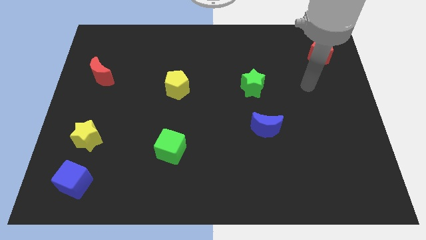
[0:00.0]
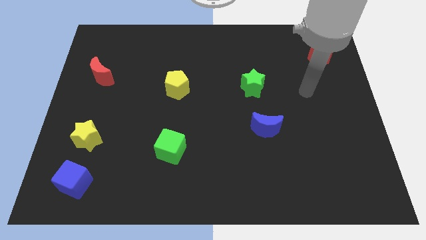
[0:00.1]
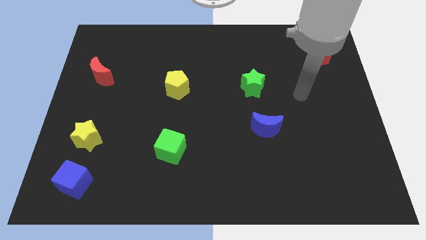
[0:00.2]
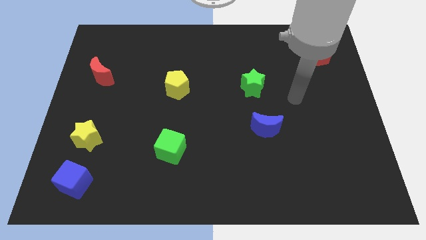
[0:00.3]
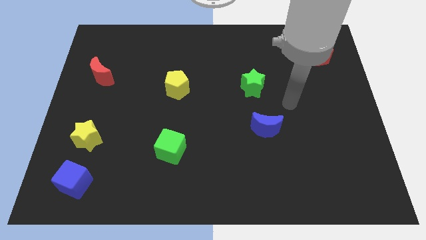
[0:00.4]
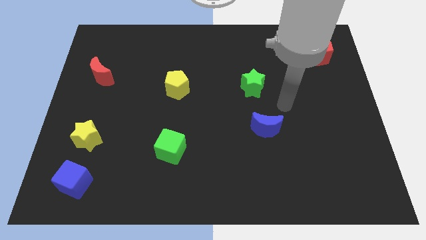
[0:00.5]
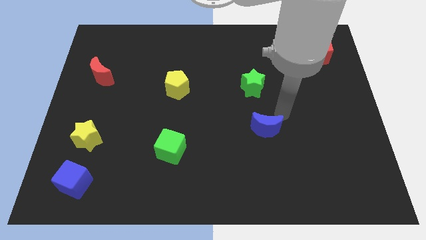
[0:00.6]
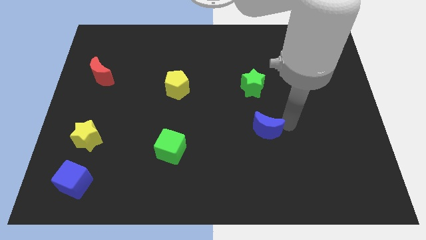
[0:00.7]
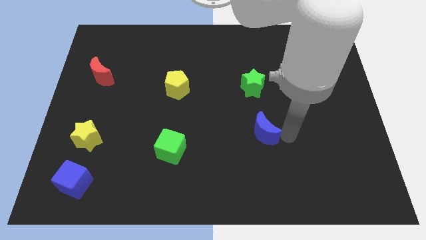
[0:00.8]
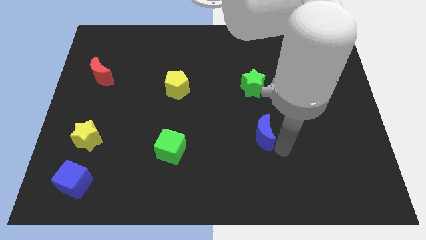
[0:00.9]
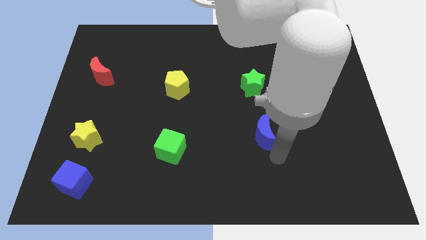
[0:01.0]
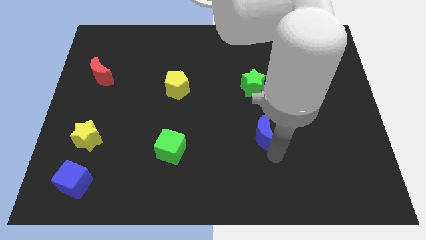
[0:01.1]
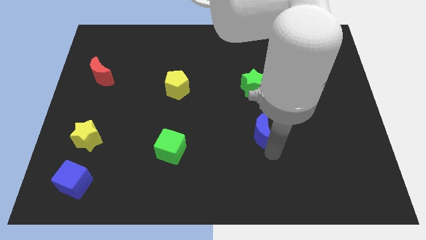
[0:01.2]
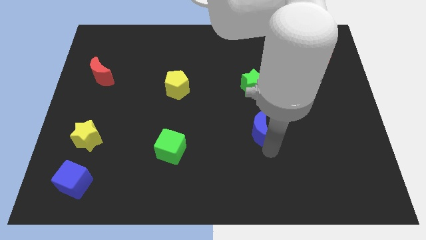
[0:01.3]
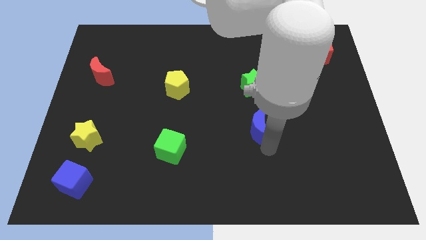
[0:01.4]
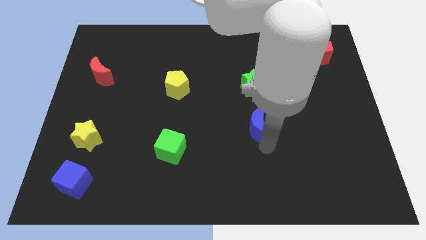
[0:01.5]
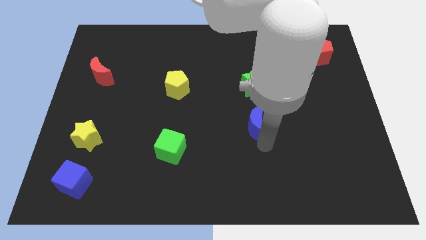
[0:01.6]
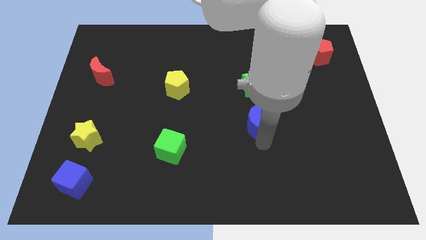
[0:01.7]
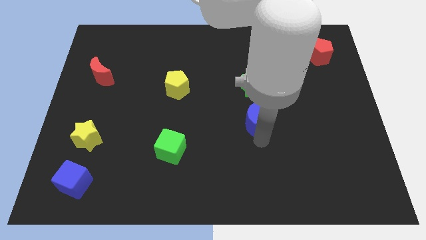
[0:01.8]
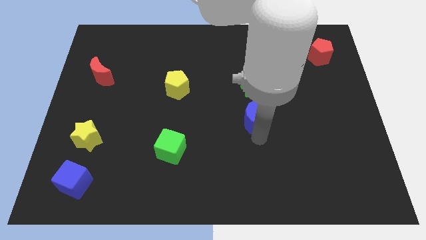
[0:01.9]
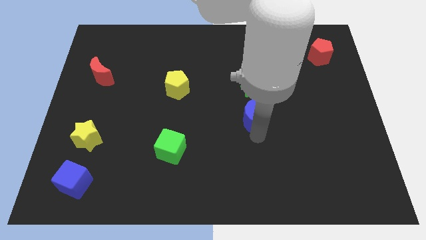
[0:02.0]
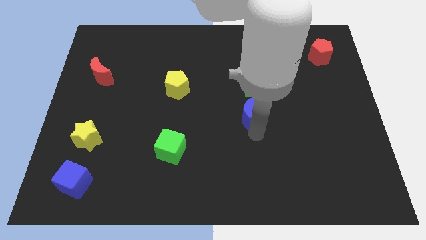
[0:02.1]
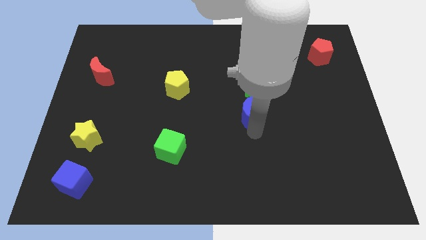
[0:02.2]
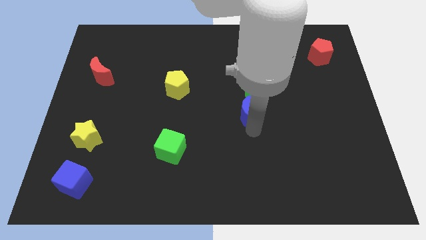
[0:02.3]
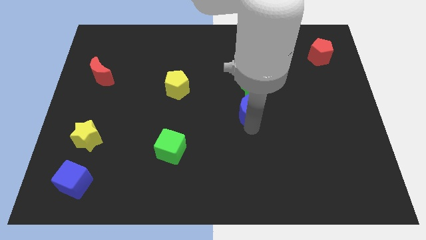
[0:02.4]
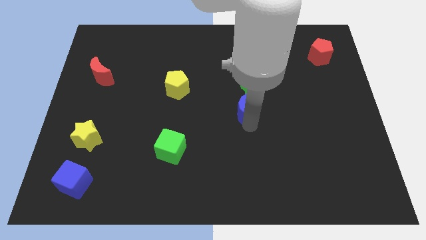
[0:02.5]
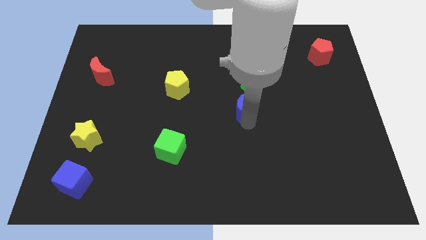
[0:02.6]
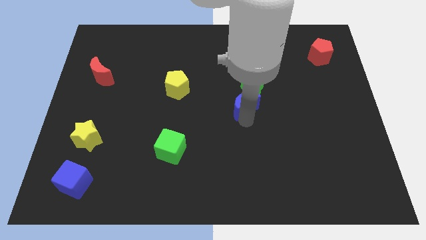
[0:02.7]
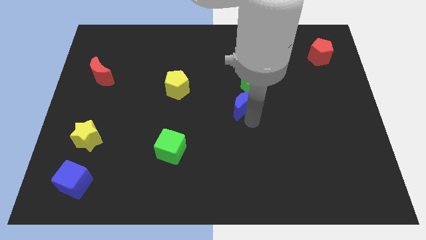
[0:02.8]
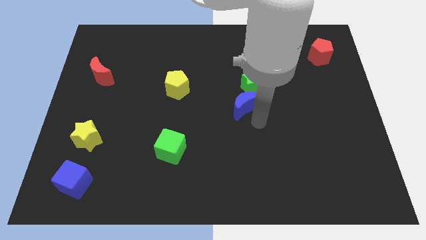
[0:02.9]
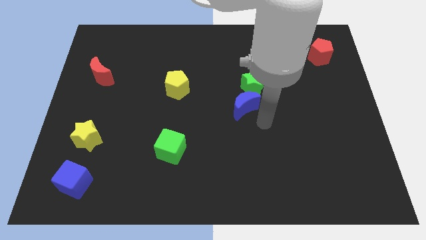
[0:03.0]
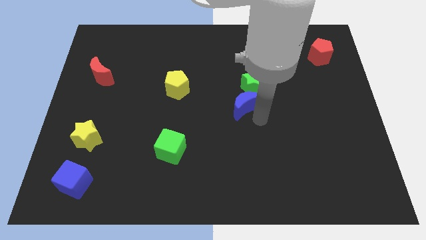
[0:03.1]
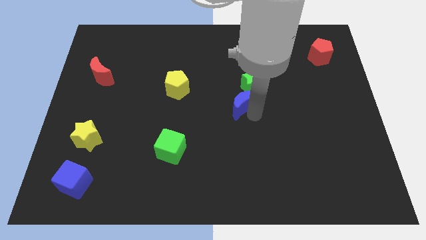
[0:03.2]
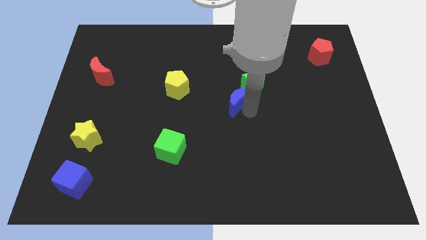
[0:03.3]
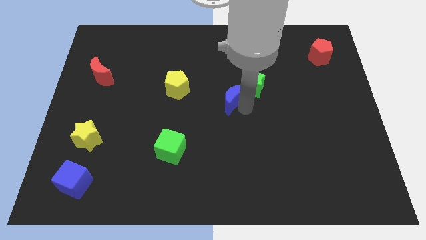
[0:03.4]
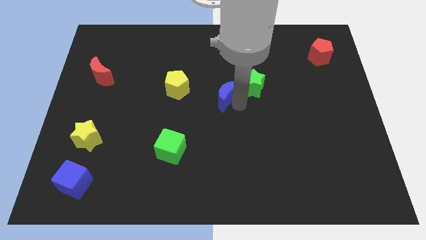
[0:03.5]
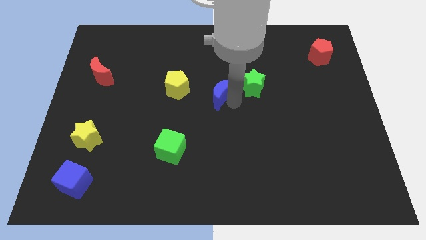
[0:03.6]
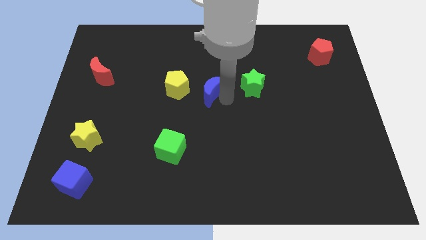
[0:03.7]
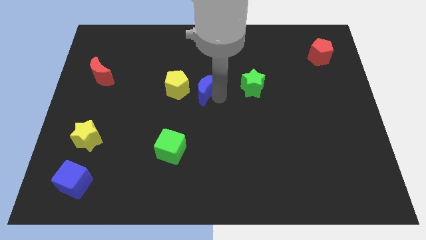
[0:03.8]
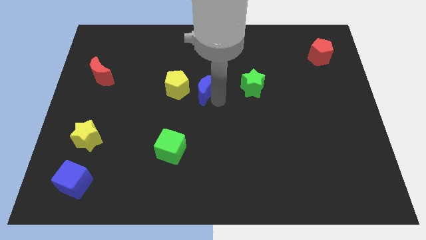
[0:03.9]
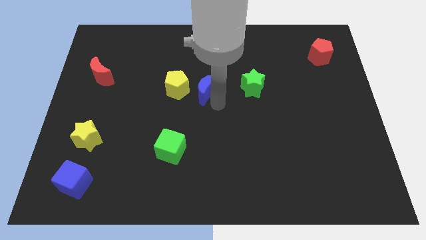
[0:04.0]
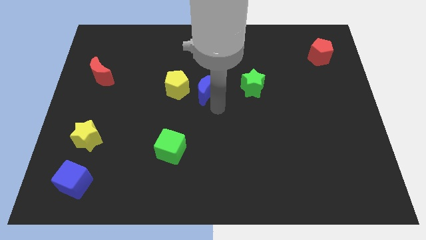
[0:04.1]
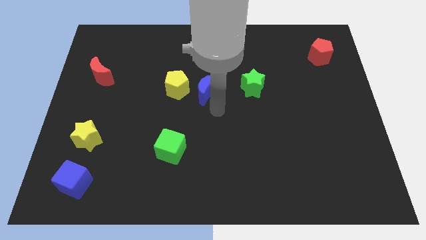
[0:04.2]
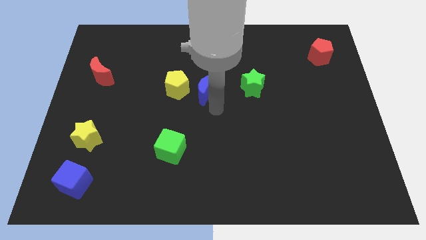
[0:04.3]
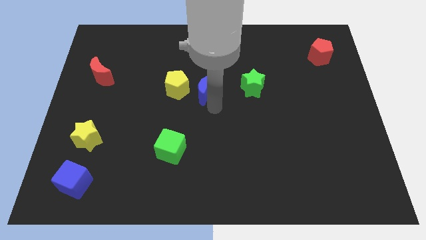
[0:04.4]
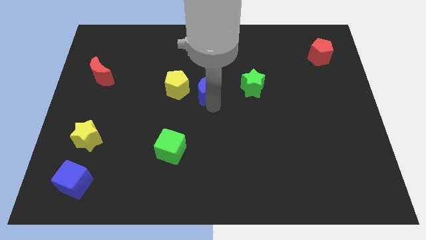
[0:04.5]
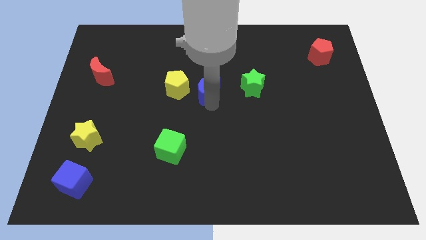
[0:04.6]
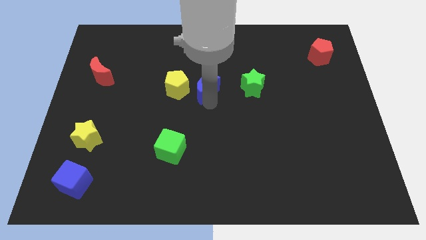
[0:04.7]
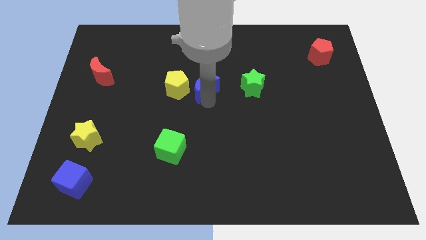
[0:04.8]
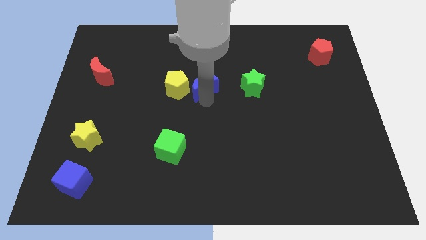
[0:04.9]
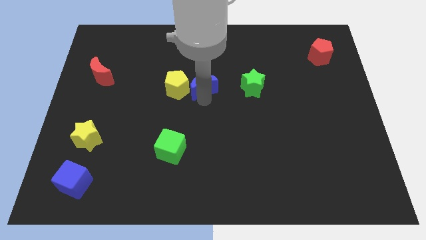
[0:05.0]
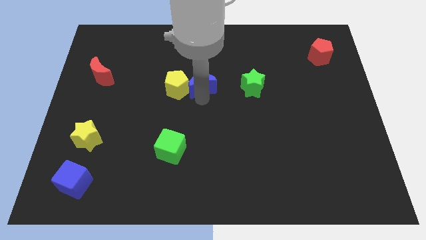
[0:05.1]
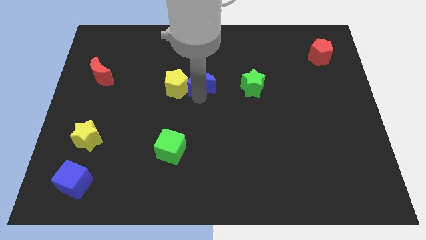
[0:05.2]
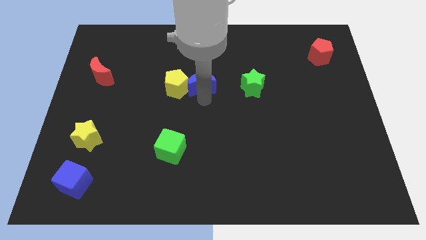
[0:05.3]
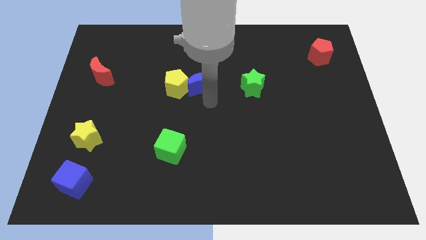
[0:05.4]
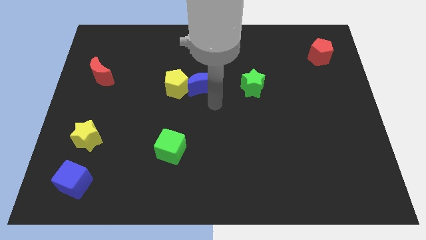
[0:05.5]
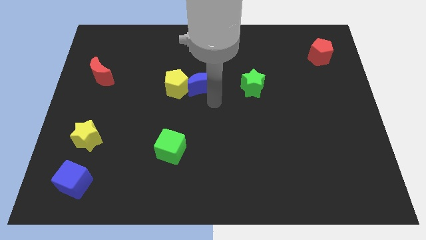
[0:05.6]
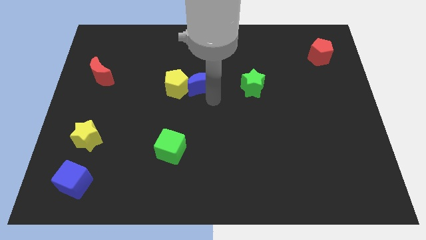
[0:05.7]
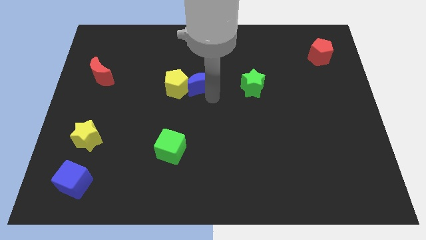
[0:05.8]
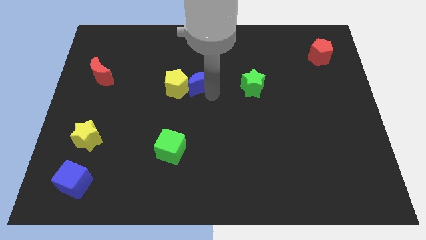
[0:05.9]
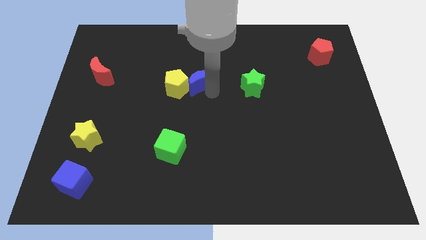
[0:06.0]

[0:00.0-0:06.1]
move the blue moon up and to the left

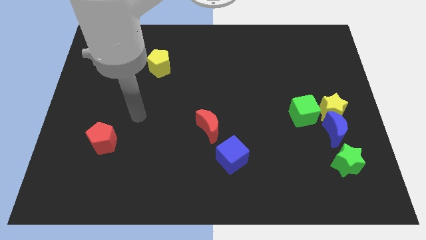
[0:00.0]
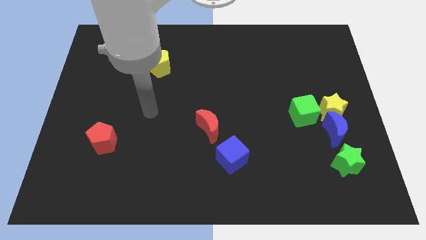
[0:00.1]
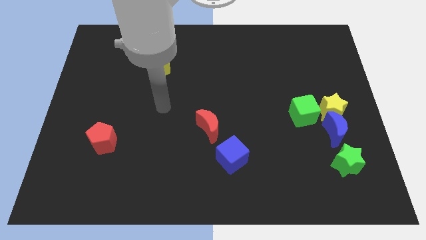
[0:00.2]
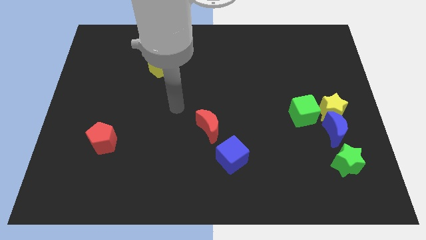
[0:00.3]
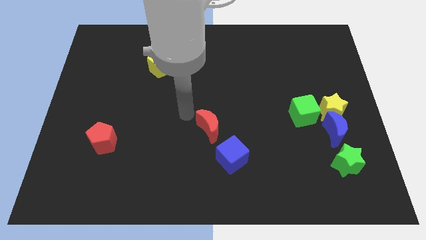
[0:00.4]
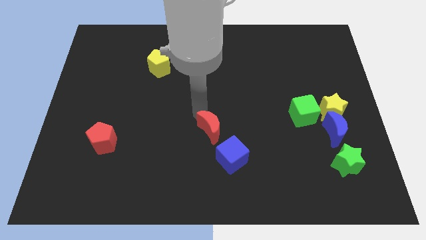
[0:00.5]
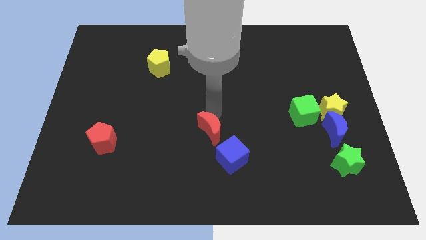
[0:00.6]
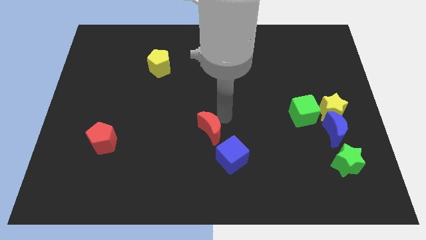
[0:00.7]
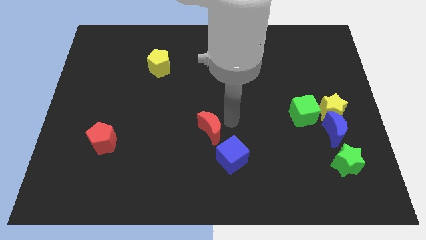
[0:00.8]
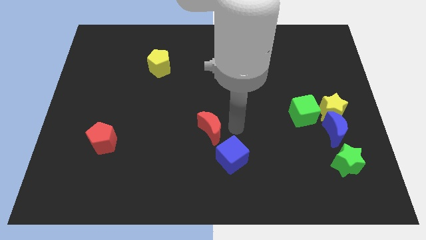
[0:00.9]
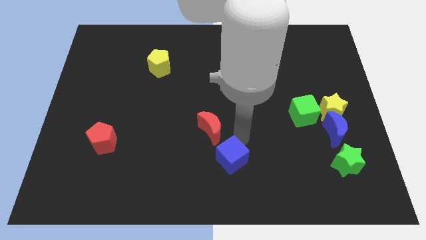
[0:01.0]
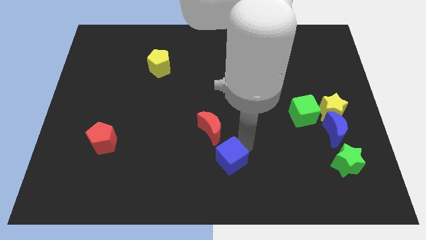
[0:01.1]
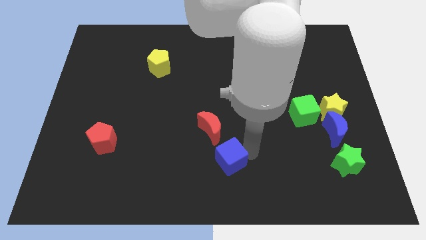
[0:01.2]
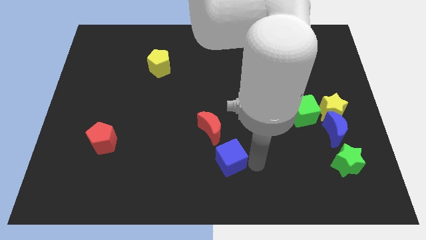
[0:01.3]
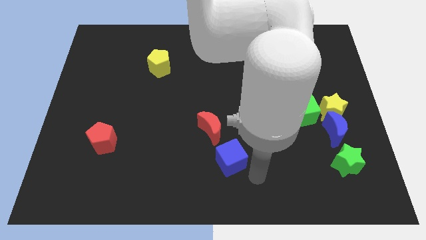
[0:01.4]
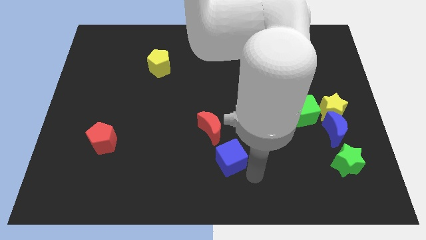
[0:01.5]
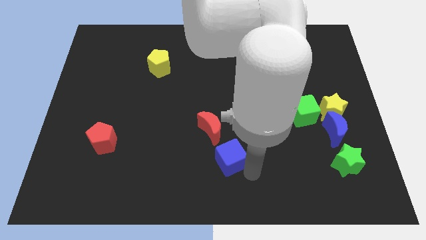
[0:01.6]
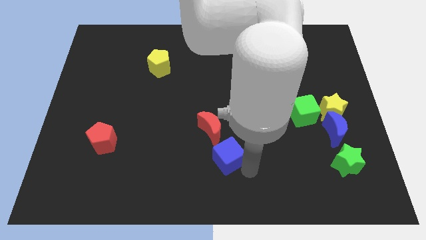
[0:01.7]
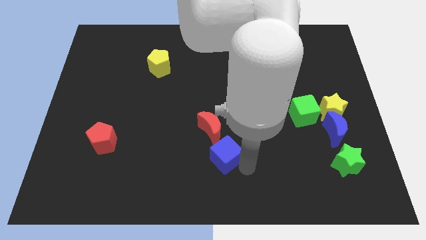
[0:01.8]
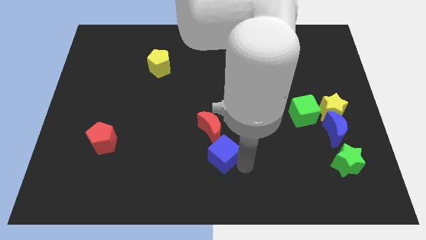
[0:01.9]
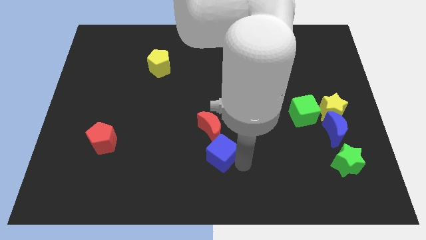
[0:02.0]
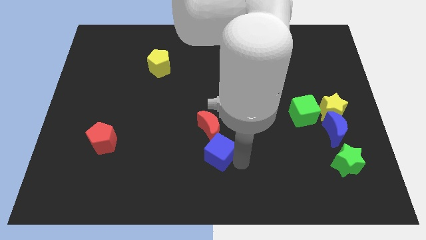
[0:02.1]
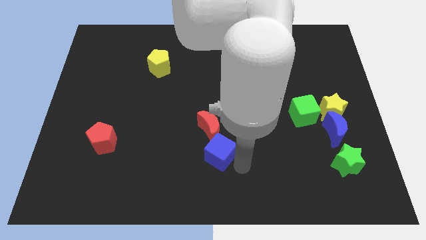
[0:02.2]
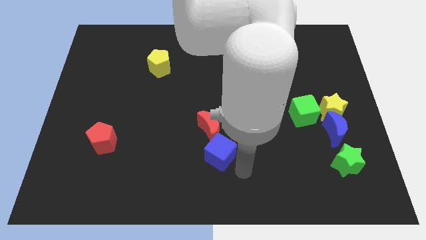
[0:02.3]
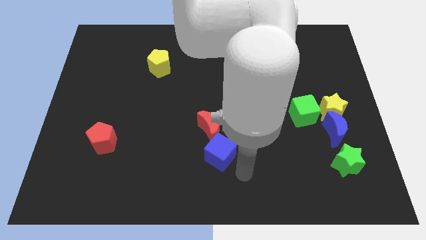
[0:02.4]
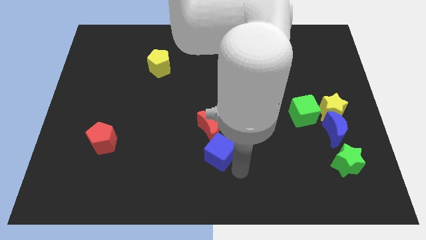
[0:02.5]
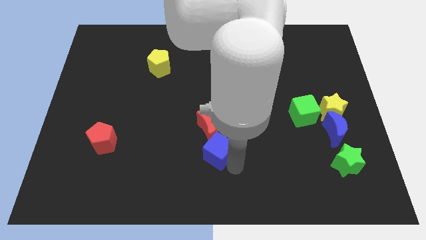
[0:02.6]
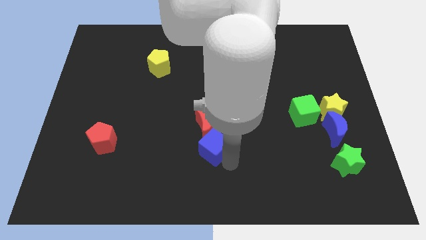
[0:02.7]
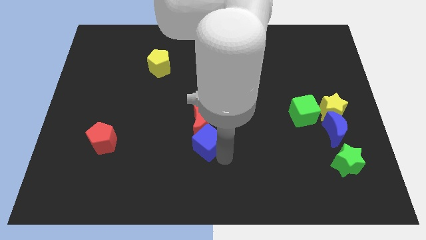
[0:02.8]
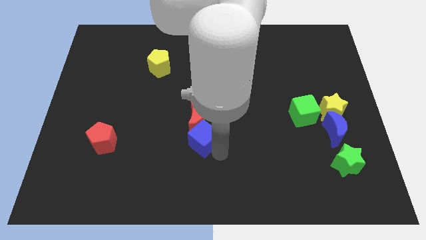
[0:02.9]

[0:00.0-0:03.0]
slightly move the blue cube up and then to the left
